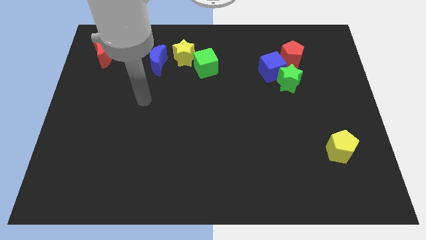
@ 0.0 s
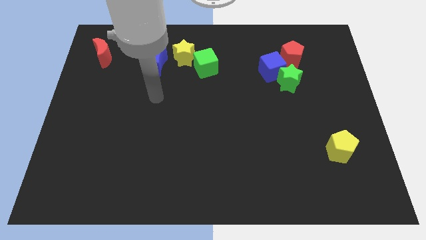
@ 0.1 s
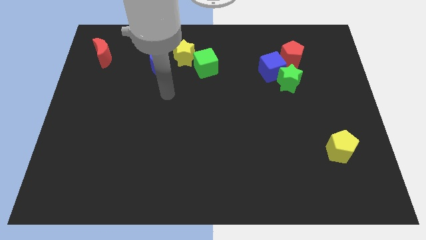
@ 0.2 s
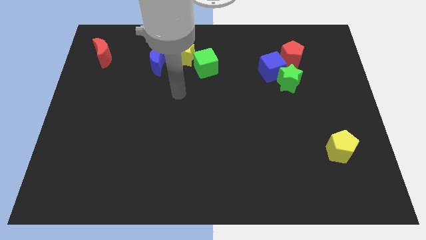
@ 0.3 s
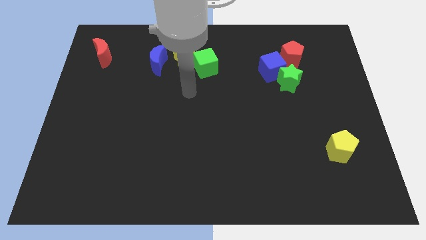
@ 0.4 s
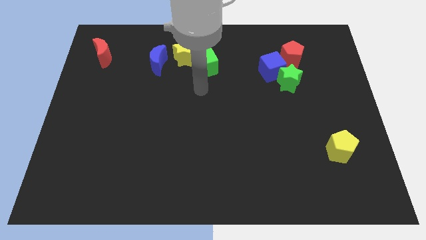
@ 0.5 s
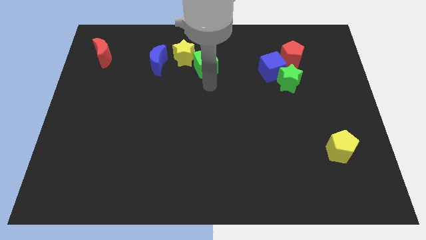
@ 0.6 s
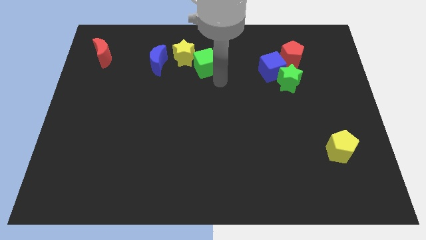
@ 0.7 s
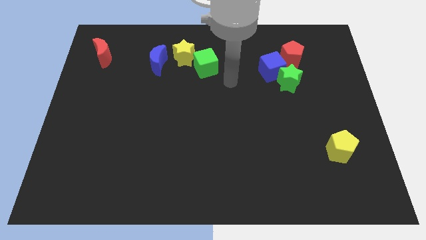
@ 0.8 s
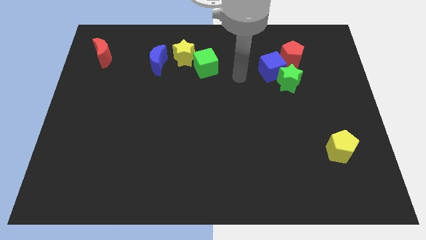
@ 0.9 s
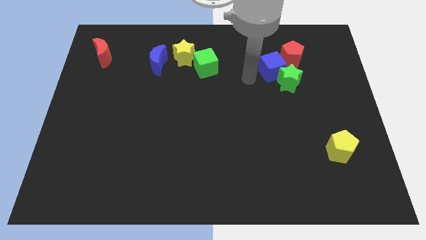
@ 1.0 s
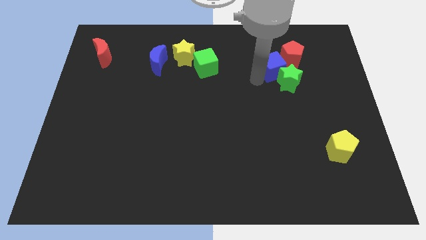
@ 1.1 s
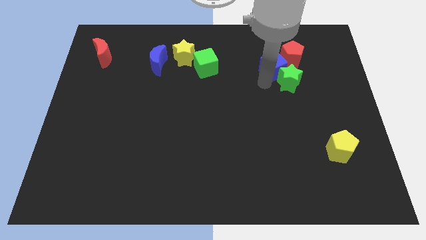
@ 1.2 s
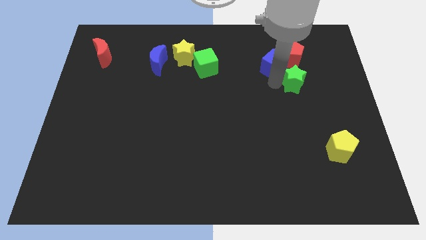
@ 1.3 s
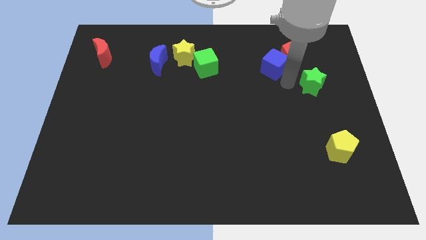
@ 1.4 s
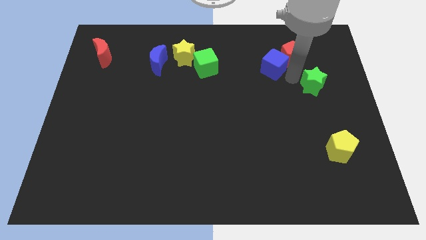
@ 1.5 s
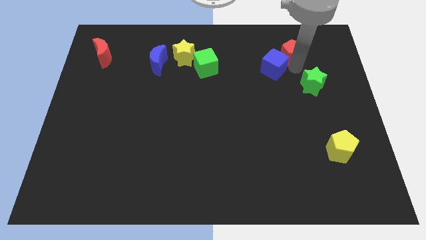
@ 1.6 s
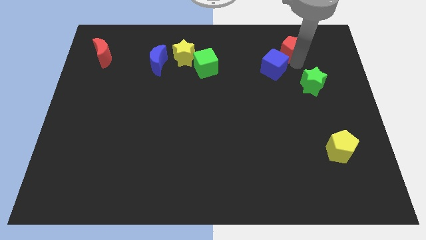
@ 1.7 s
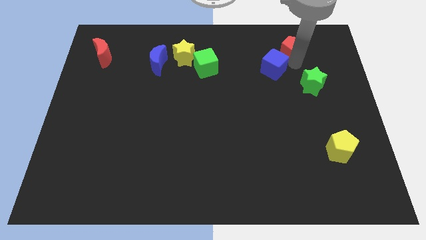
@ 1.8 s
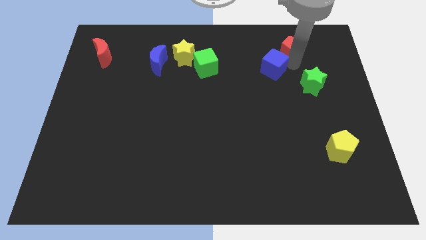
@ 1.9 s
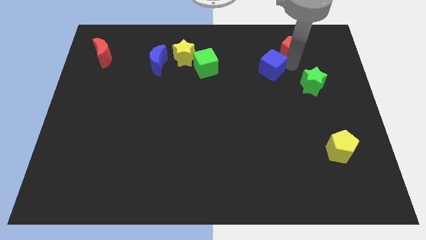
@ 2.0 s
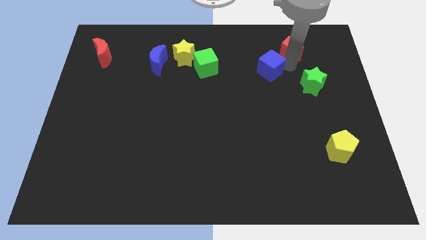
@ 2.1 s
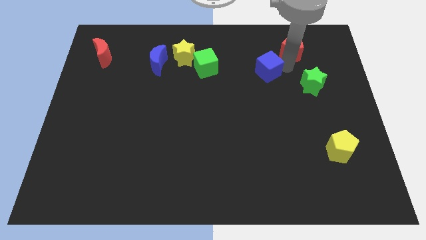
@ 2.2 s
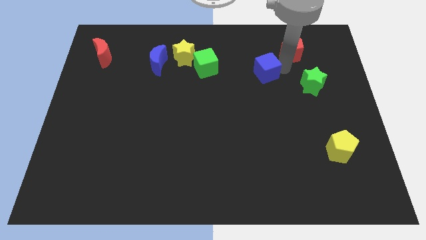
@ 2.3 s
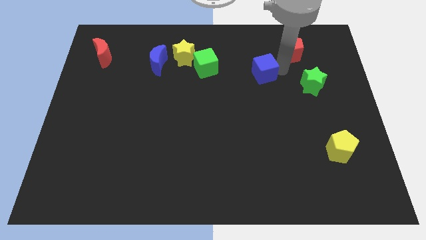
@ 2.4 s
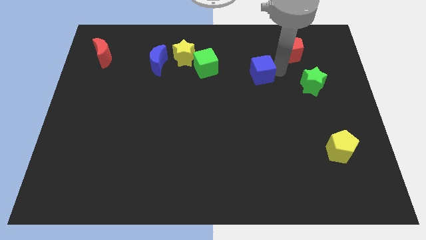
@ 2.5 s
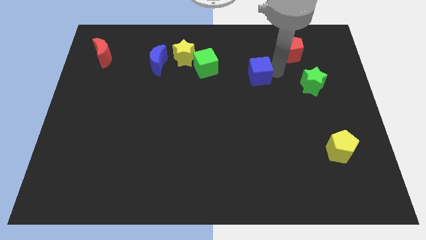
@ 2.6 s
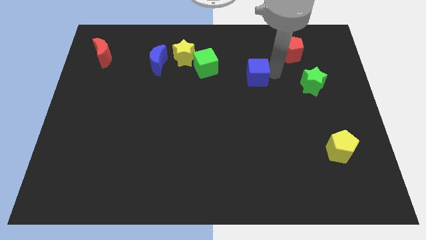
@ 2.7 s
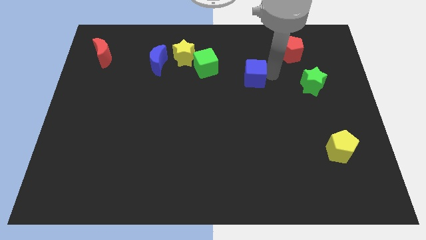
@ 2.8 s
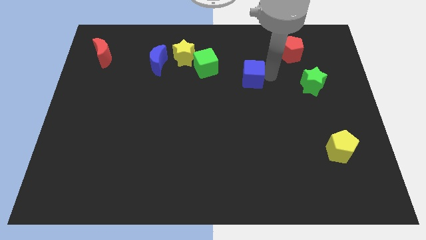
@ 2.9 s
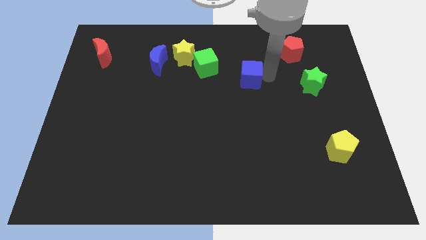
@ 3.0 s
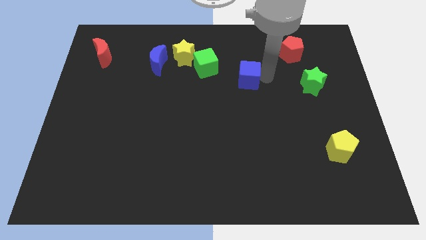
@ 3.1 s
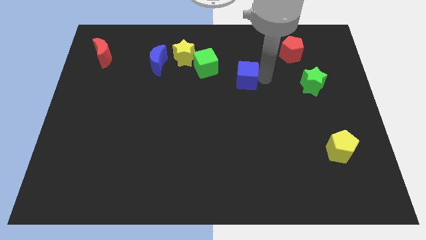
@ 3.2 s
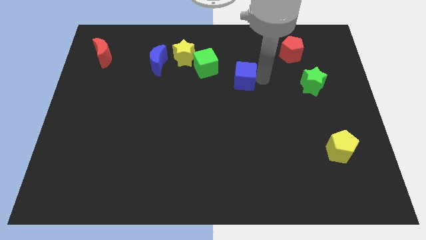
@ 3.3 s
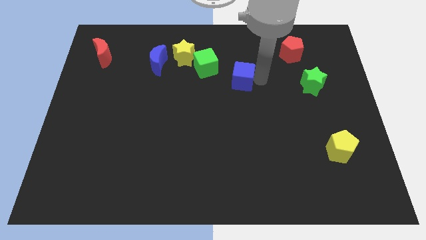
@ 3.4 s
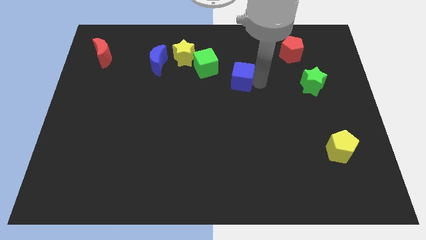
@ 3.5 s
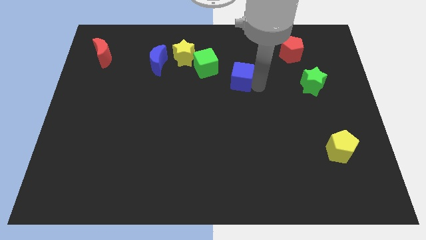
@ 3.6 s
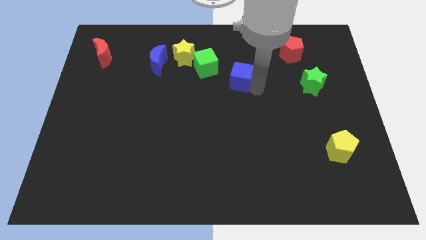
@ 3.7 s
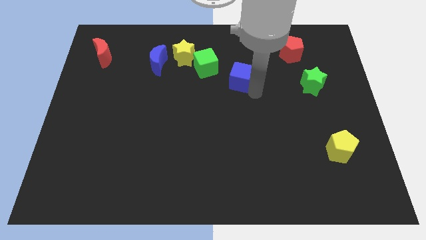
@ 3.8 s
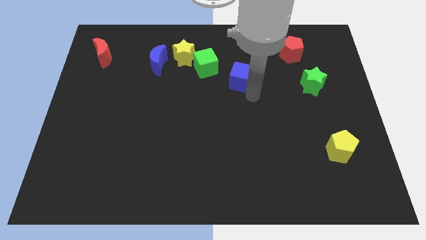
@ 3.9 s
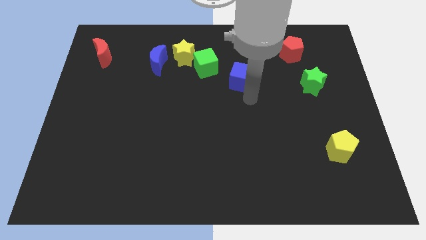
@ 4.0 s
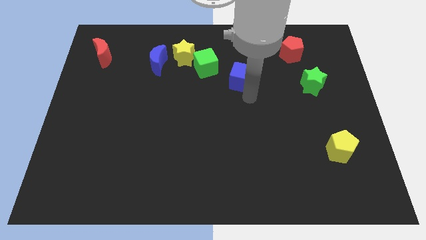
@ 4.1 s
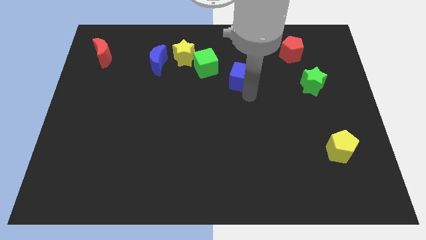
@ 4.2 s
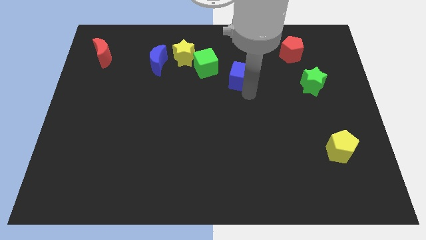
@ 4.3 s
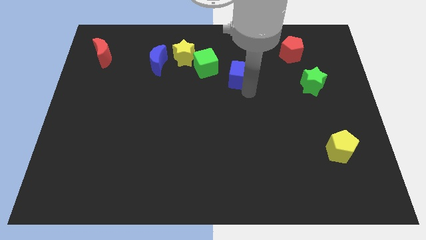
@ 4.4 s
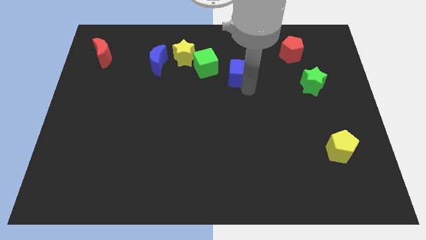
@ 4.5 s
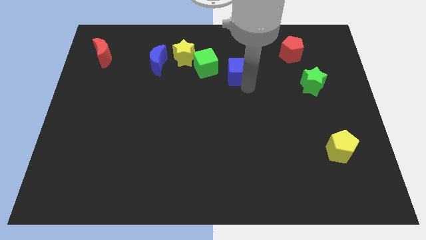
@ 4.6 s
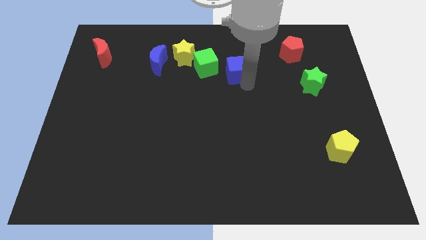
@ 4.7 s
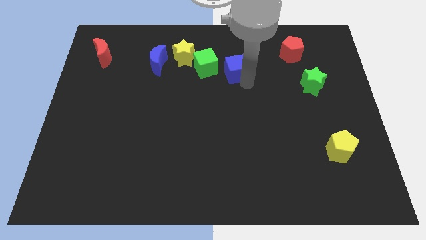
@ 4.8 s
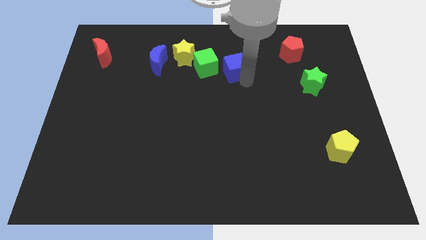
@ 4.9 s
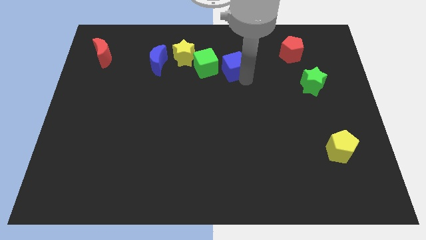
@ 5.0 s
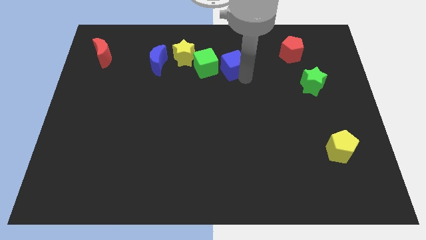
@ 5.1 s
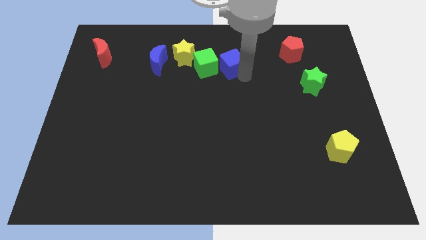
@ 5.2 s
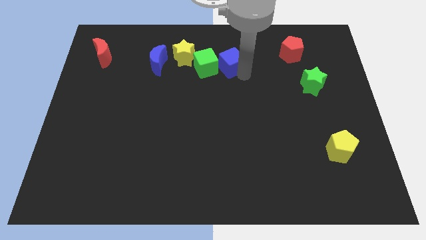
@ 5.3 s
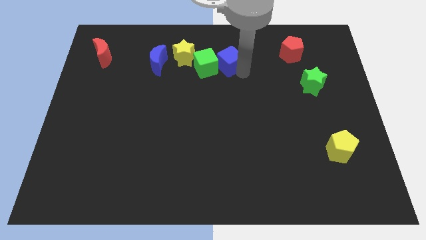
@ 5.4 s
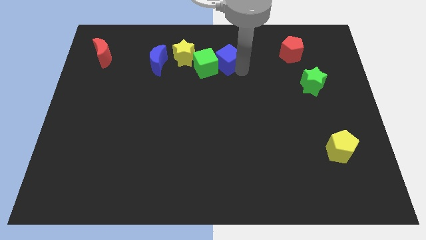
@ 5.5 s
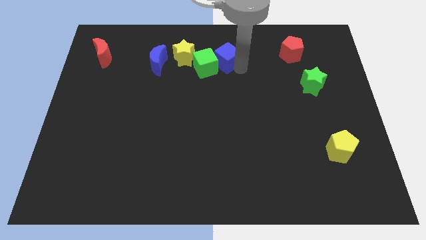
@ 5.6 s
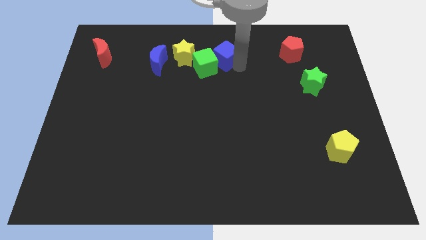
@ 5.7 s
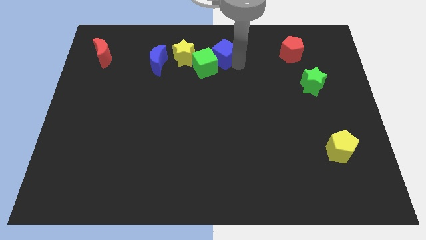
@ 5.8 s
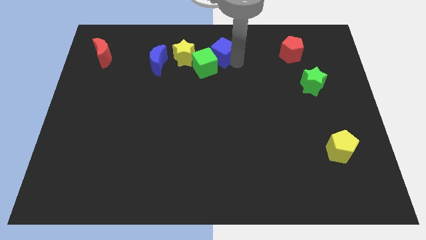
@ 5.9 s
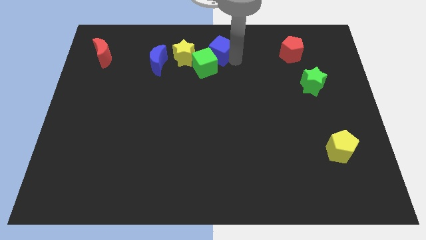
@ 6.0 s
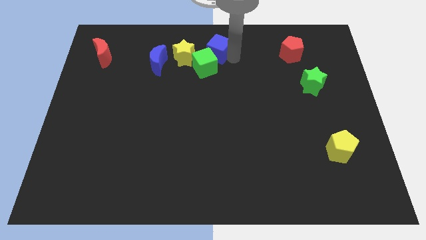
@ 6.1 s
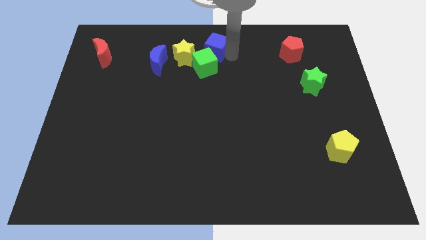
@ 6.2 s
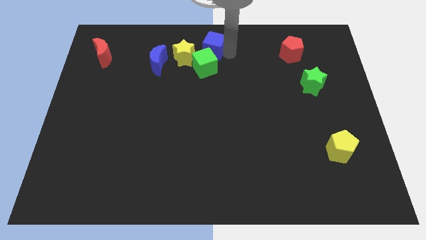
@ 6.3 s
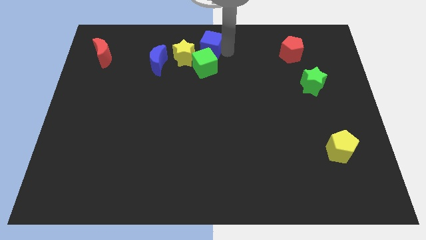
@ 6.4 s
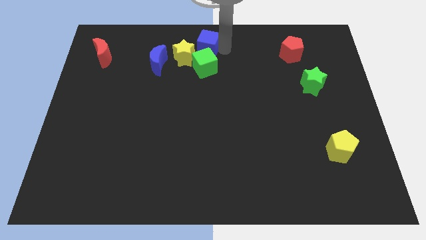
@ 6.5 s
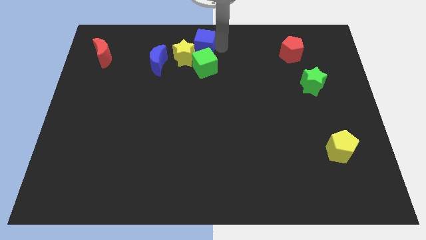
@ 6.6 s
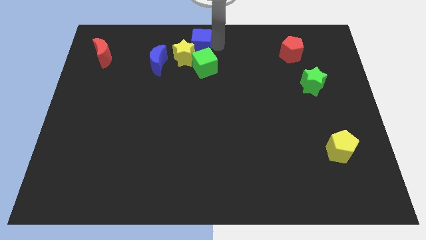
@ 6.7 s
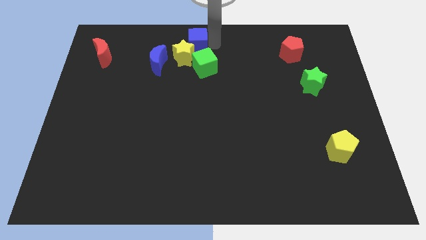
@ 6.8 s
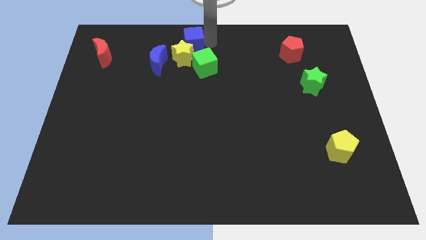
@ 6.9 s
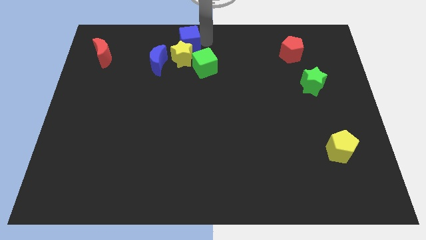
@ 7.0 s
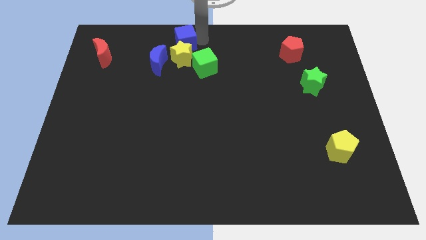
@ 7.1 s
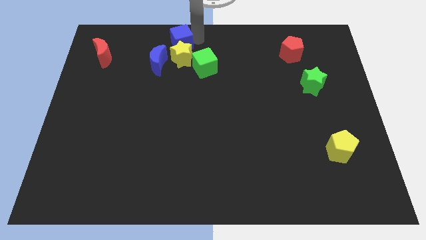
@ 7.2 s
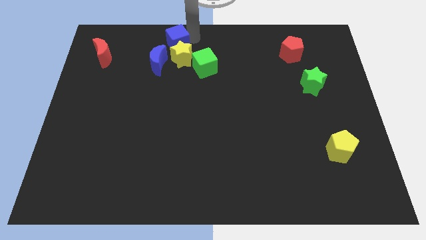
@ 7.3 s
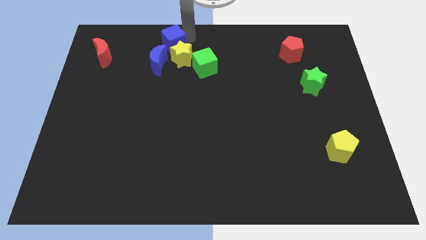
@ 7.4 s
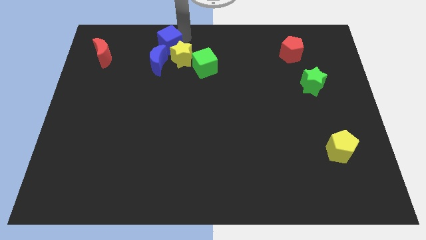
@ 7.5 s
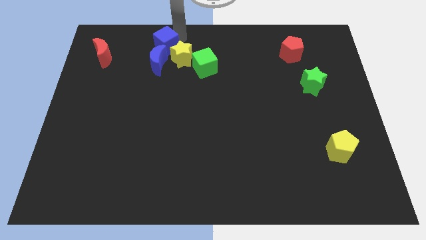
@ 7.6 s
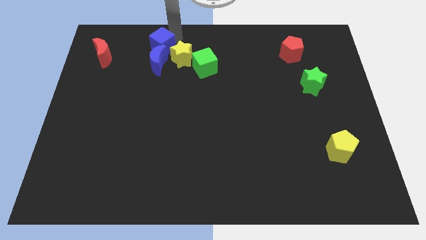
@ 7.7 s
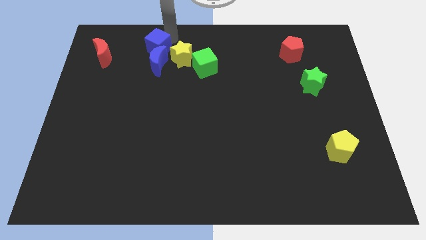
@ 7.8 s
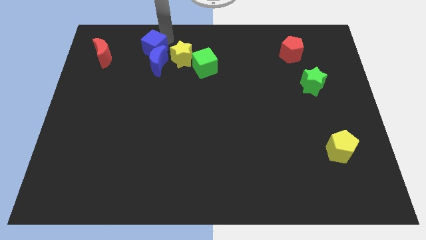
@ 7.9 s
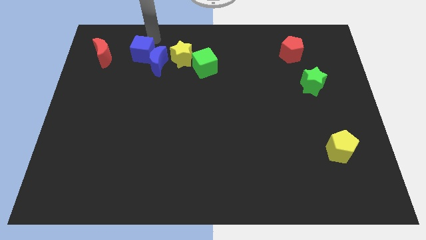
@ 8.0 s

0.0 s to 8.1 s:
move the blue cube just left of the blue moon
